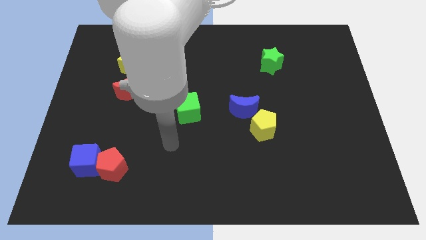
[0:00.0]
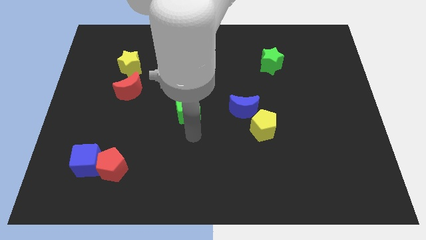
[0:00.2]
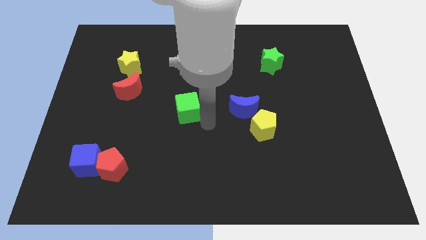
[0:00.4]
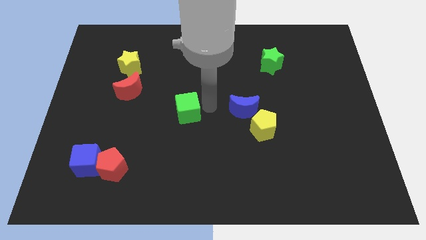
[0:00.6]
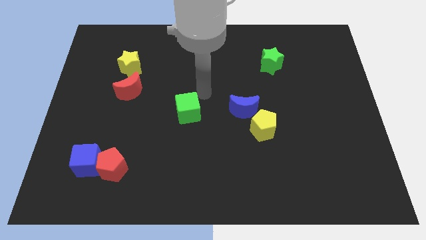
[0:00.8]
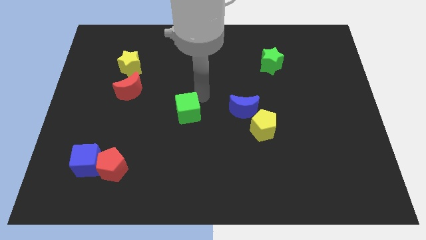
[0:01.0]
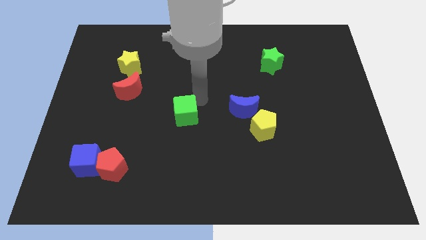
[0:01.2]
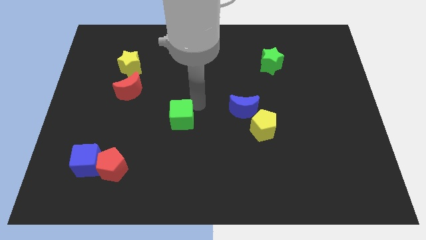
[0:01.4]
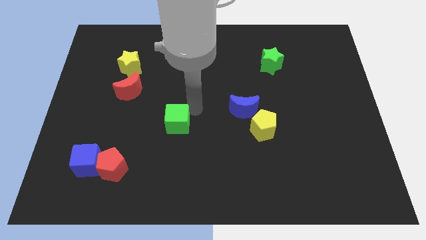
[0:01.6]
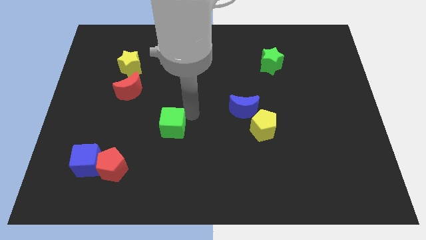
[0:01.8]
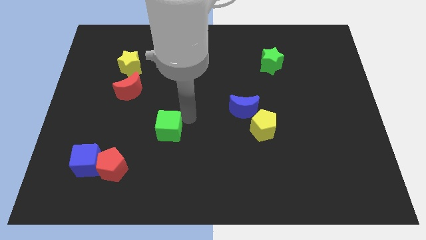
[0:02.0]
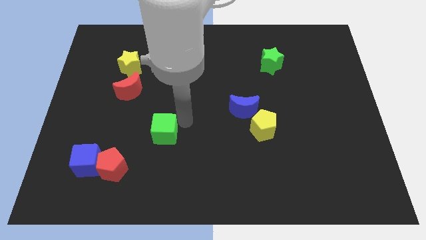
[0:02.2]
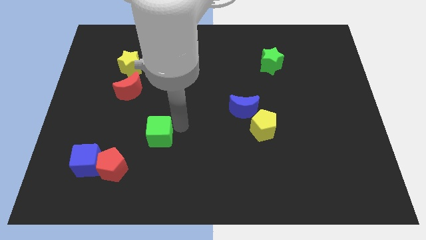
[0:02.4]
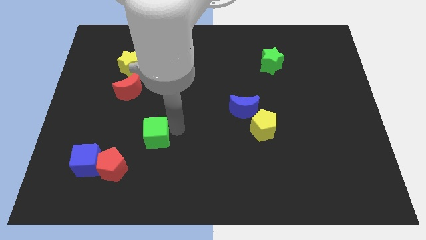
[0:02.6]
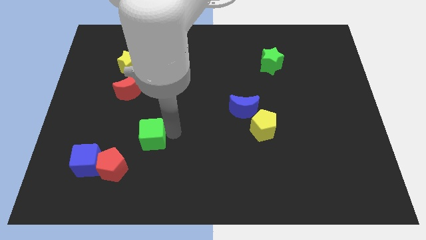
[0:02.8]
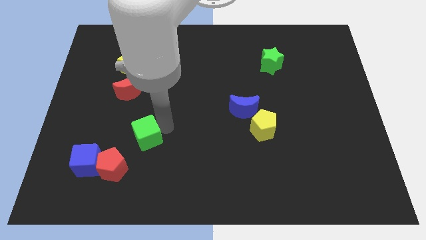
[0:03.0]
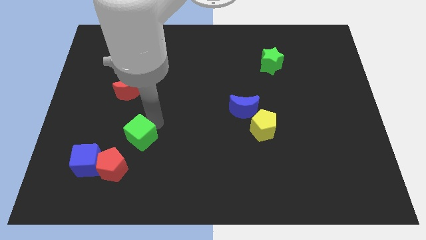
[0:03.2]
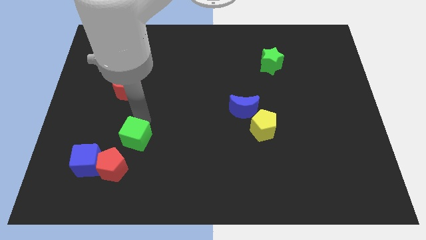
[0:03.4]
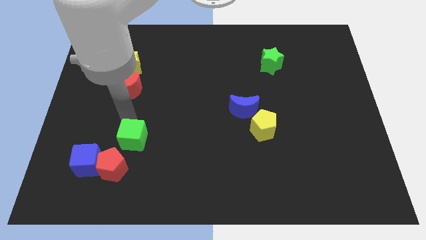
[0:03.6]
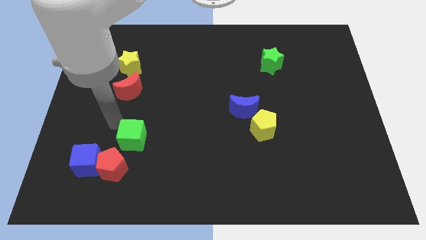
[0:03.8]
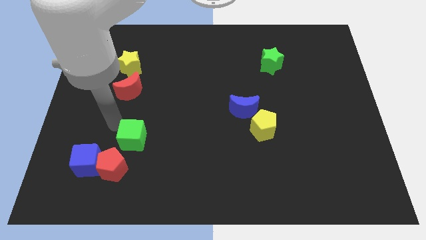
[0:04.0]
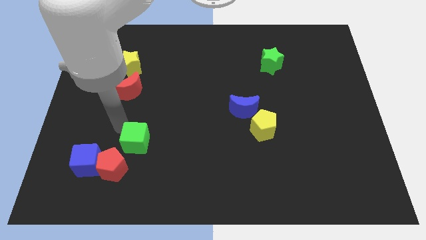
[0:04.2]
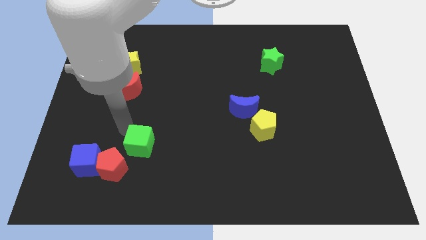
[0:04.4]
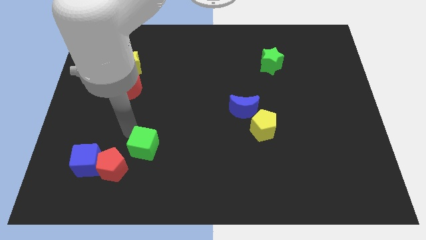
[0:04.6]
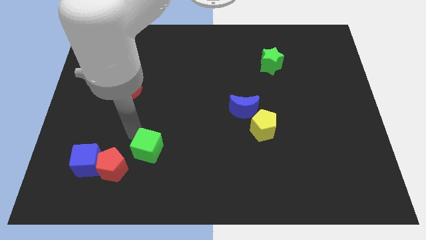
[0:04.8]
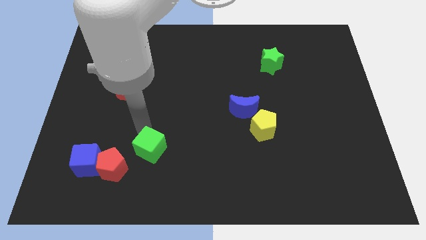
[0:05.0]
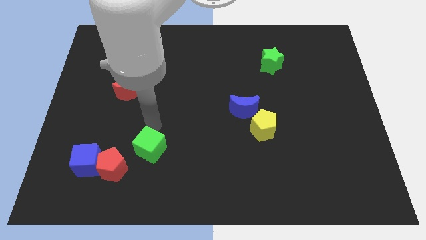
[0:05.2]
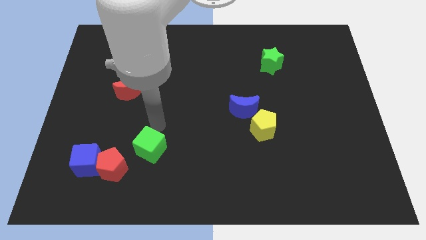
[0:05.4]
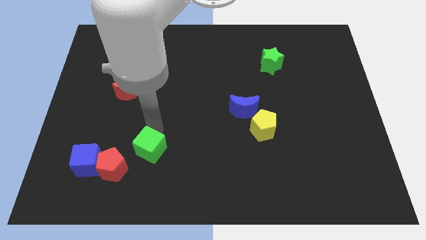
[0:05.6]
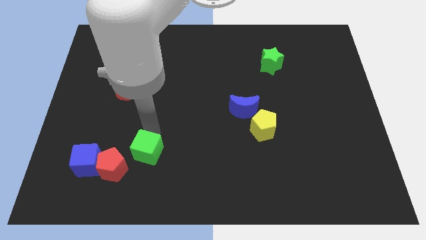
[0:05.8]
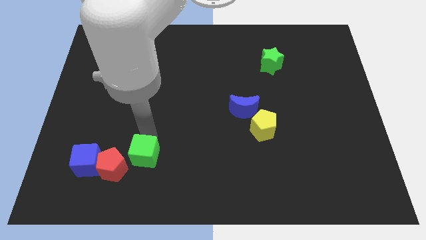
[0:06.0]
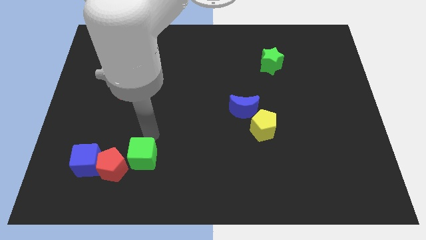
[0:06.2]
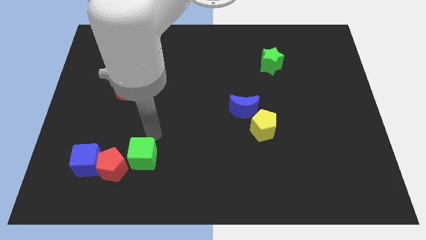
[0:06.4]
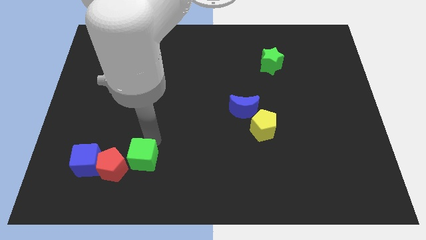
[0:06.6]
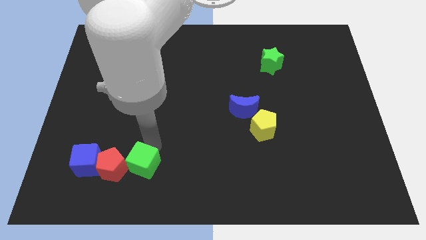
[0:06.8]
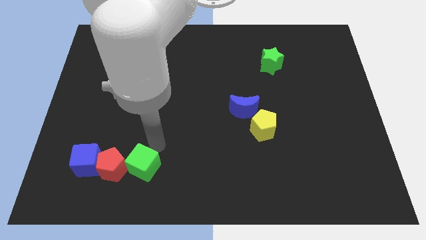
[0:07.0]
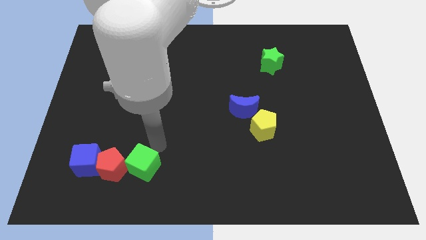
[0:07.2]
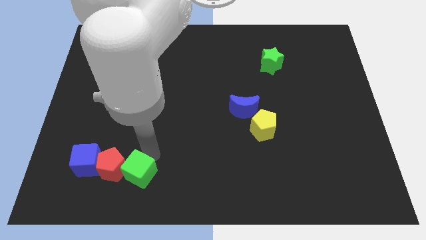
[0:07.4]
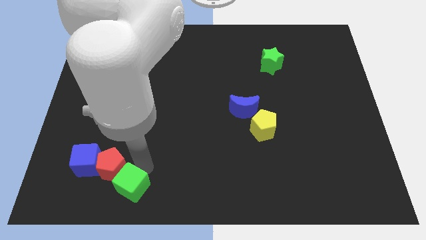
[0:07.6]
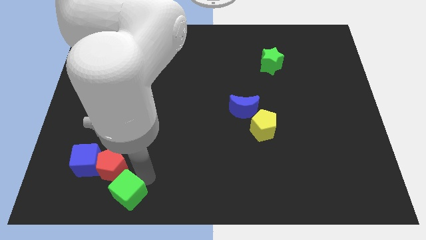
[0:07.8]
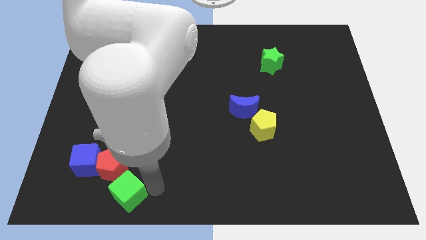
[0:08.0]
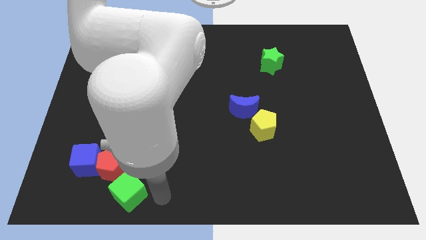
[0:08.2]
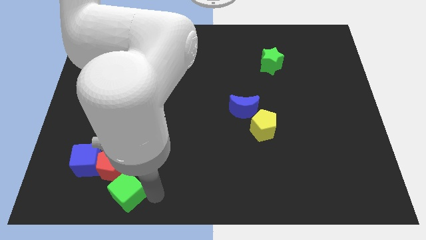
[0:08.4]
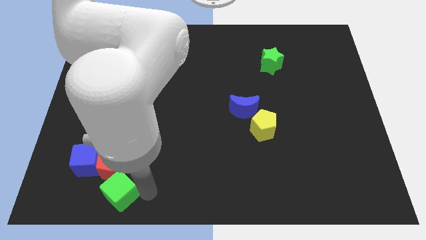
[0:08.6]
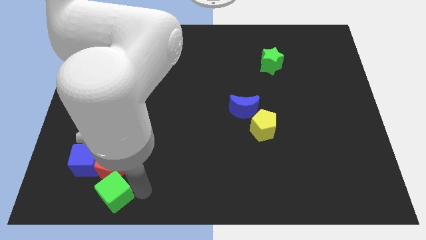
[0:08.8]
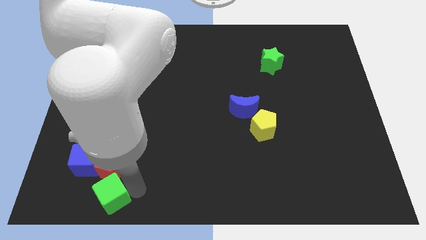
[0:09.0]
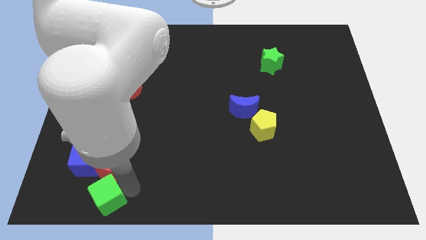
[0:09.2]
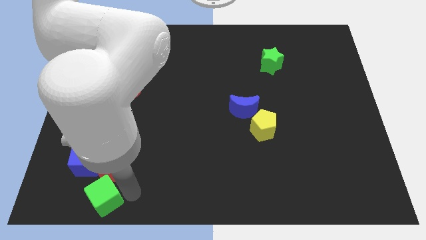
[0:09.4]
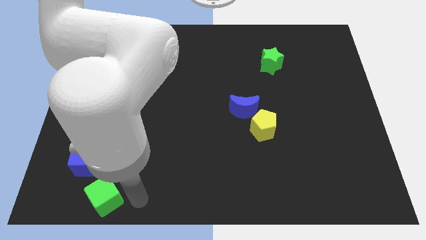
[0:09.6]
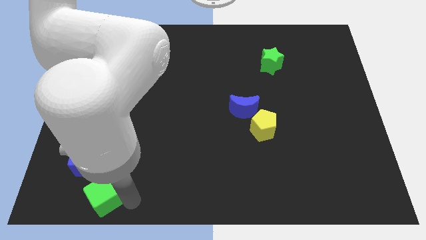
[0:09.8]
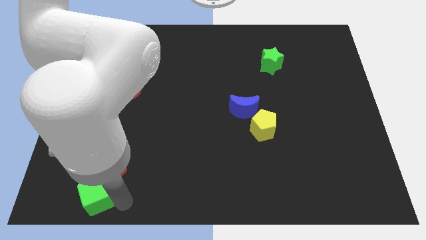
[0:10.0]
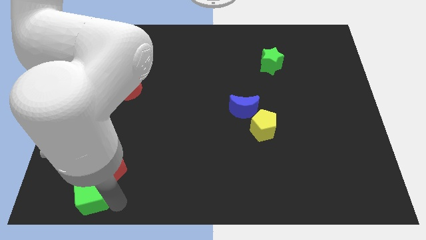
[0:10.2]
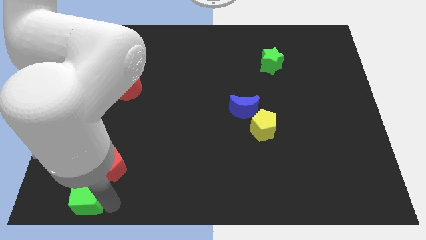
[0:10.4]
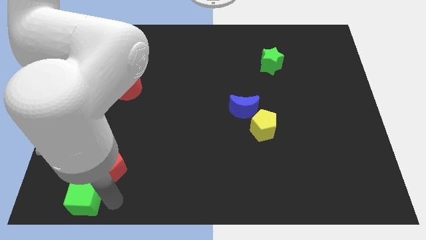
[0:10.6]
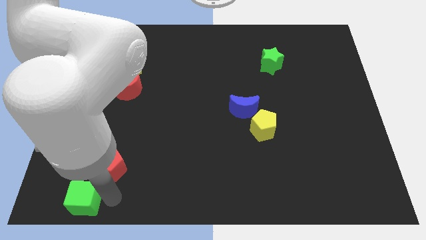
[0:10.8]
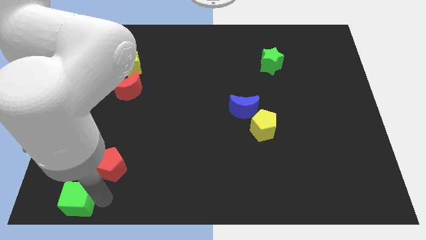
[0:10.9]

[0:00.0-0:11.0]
put the green cube to the bottom left of the board
